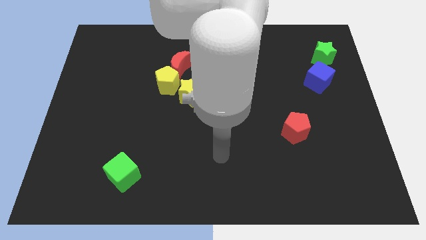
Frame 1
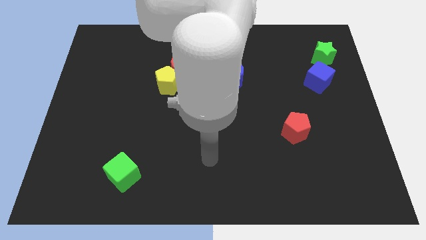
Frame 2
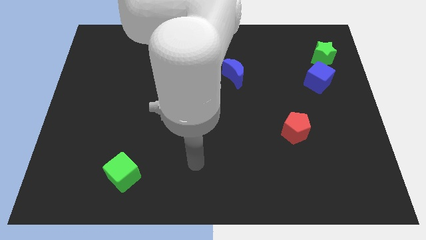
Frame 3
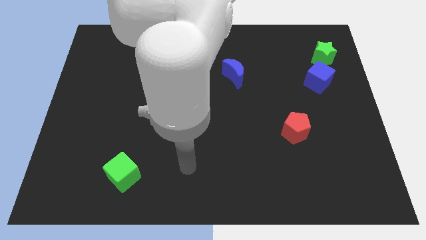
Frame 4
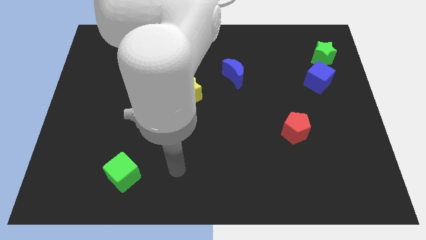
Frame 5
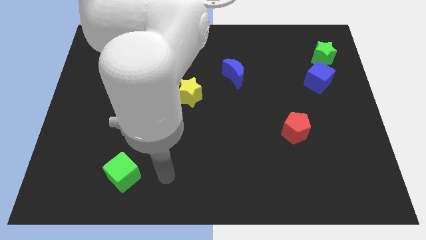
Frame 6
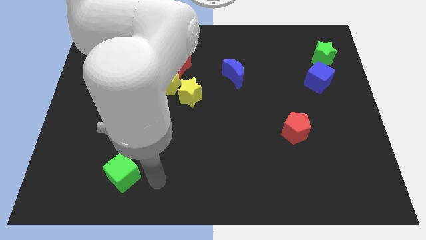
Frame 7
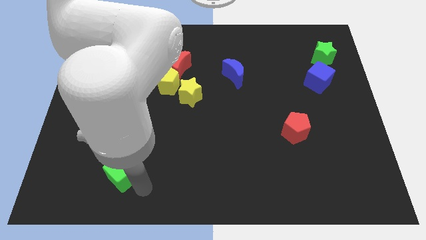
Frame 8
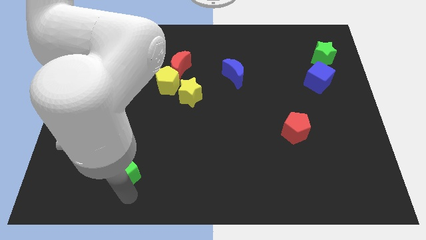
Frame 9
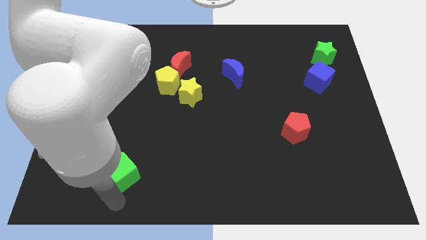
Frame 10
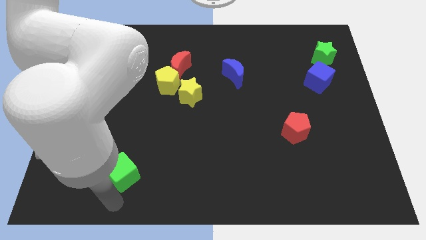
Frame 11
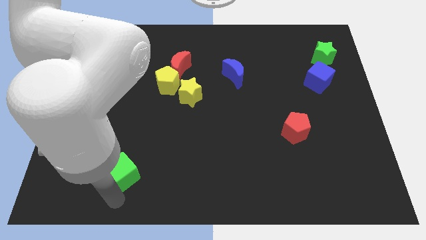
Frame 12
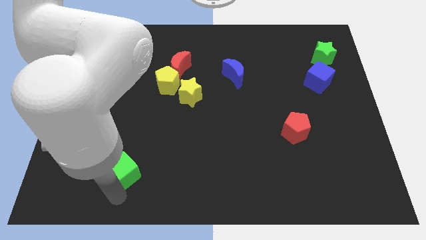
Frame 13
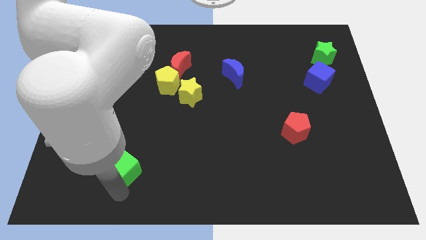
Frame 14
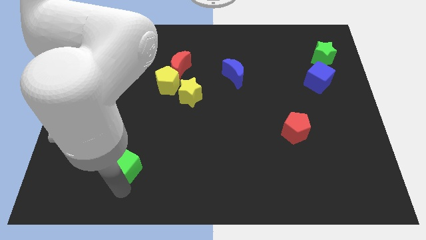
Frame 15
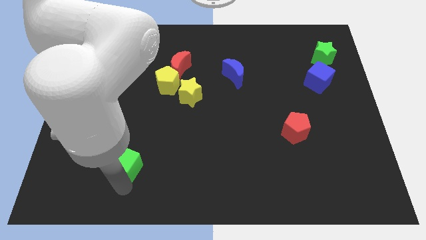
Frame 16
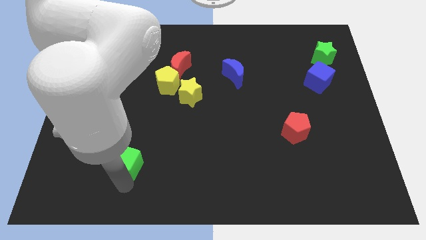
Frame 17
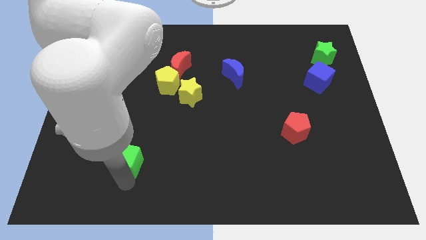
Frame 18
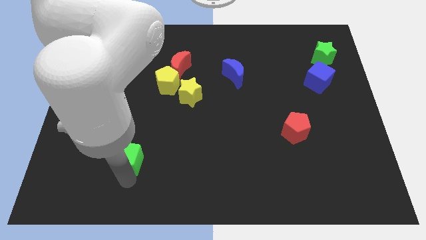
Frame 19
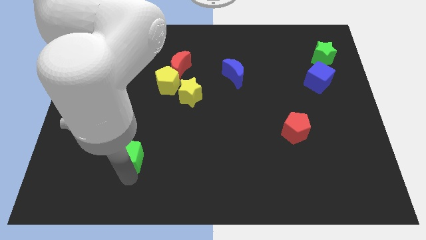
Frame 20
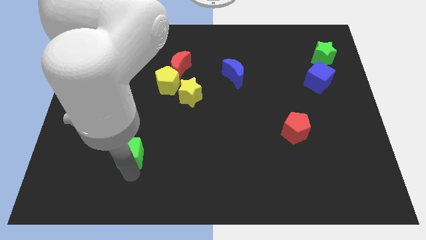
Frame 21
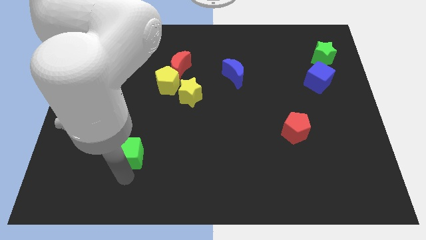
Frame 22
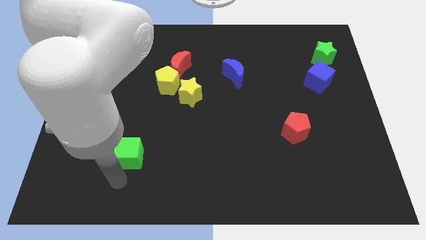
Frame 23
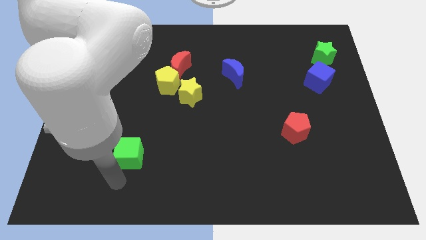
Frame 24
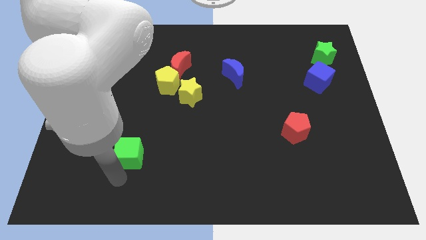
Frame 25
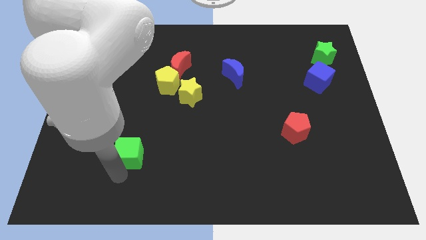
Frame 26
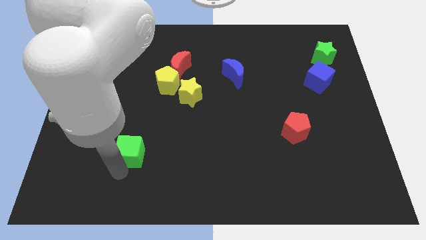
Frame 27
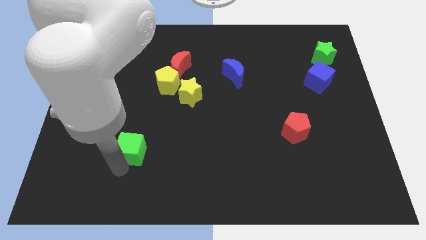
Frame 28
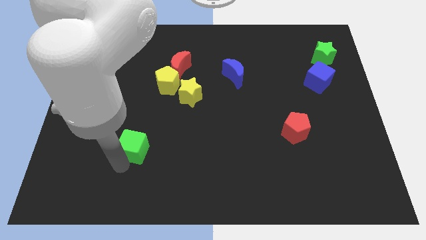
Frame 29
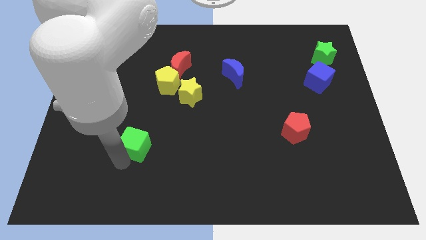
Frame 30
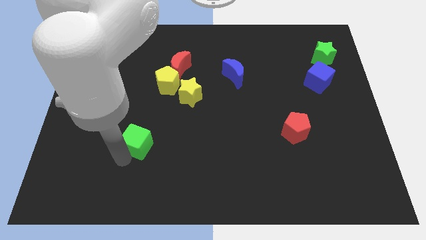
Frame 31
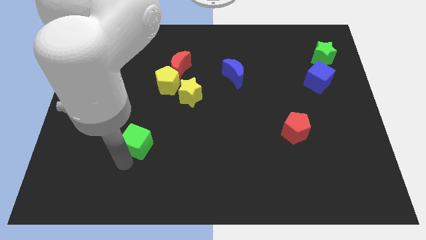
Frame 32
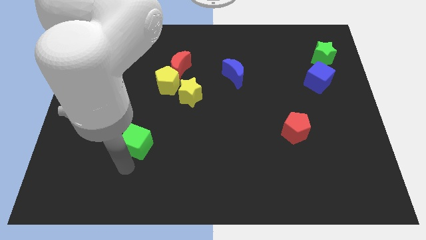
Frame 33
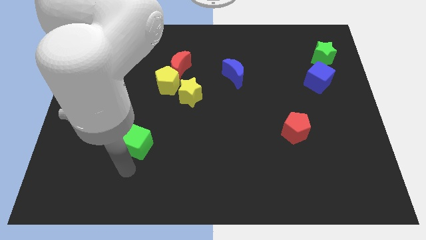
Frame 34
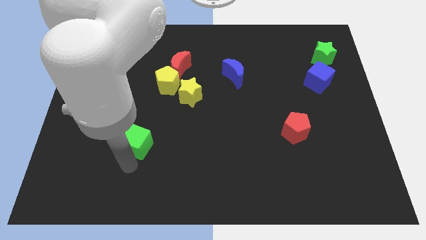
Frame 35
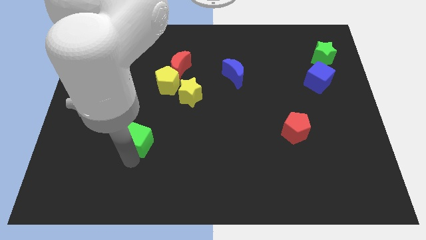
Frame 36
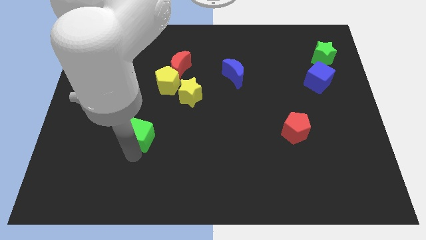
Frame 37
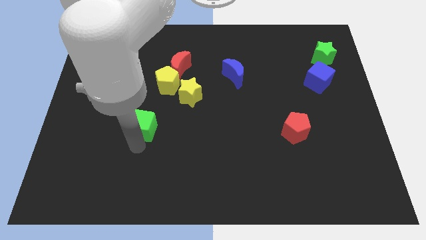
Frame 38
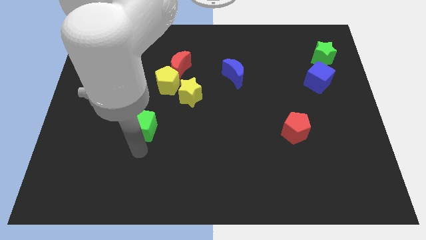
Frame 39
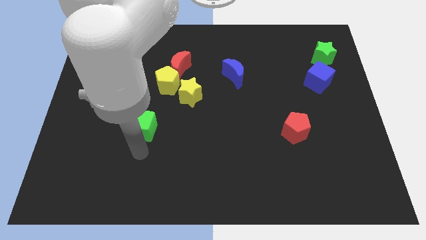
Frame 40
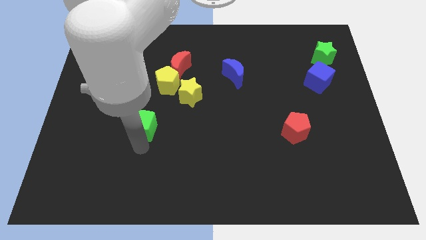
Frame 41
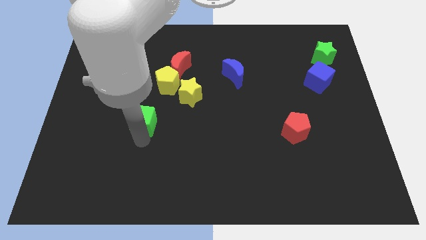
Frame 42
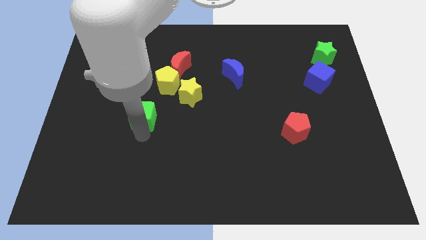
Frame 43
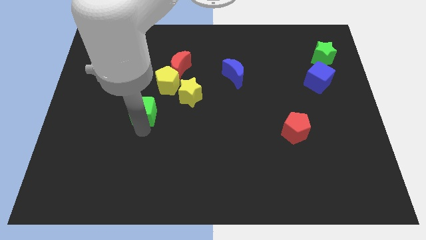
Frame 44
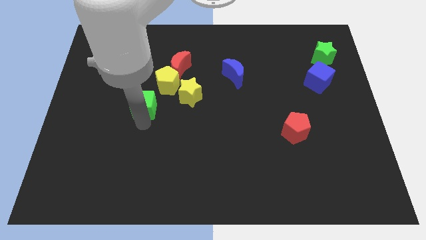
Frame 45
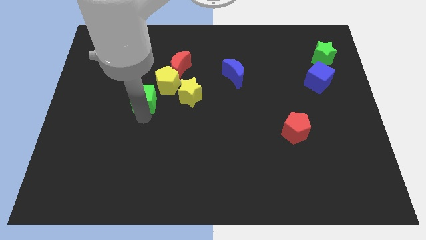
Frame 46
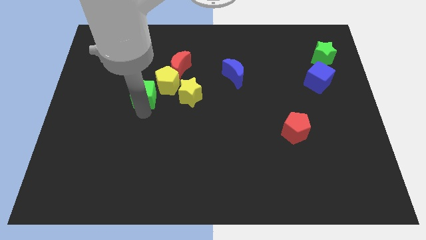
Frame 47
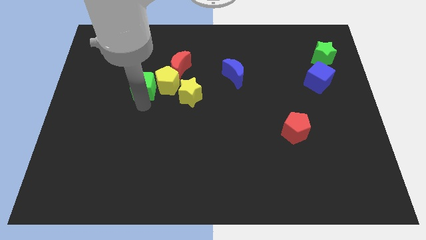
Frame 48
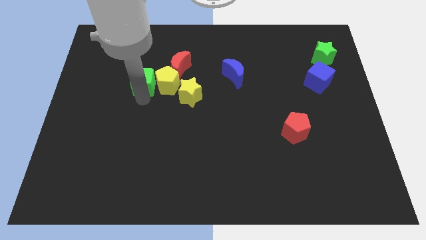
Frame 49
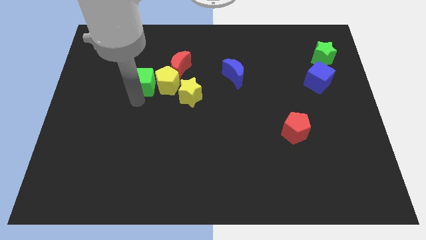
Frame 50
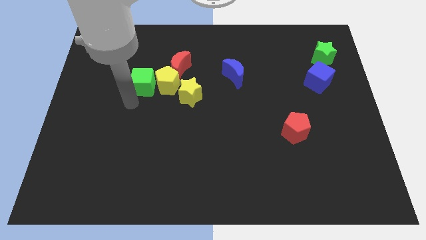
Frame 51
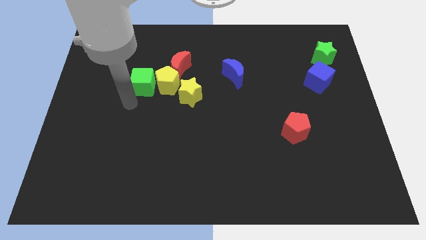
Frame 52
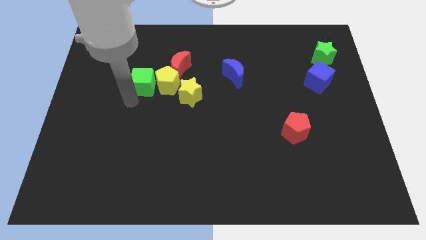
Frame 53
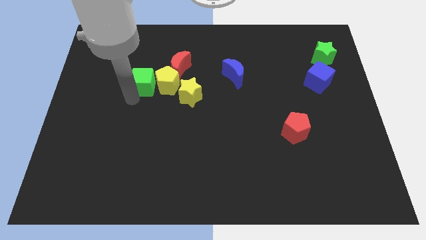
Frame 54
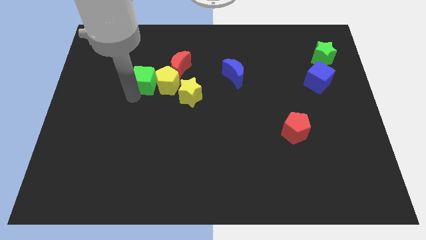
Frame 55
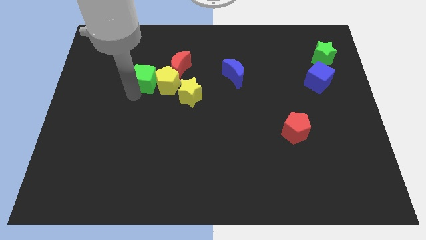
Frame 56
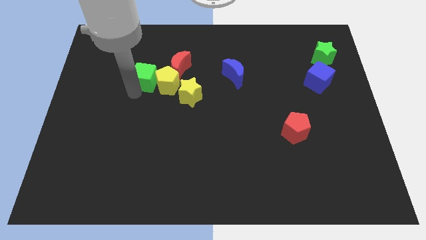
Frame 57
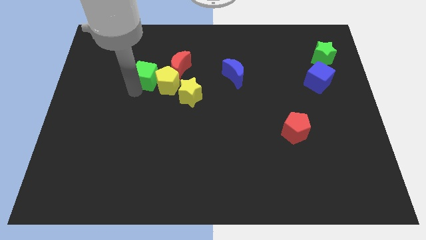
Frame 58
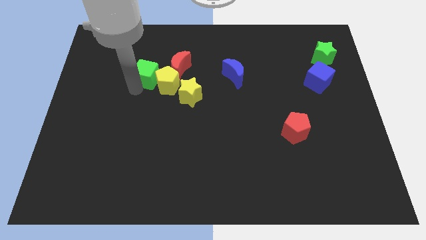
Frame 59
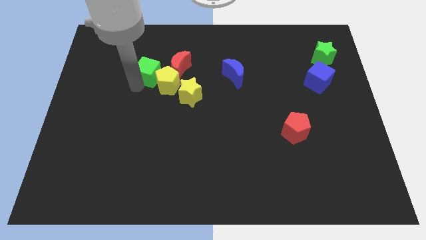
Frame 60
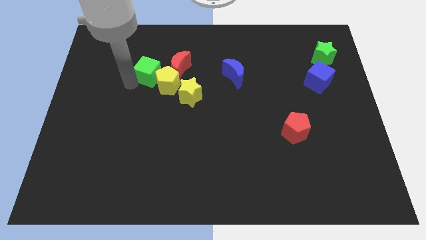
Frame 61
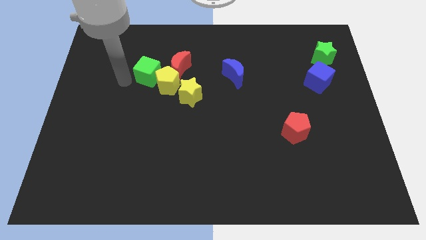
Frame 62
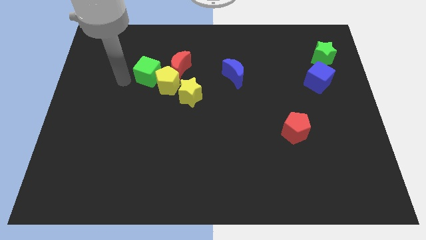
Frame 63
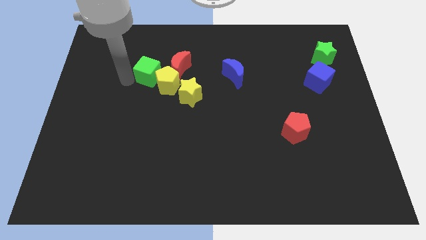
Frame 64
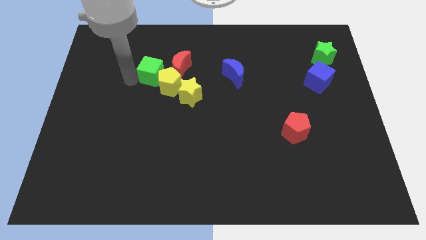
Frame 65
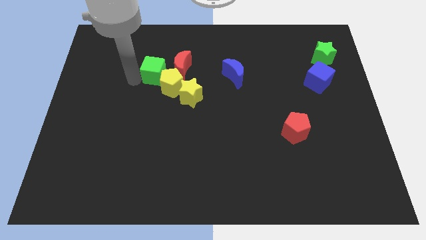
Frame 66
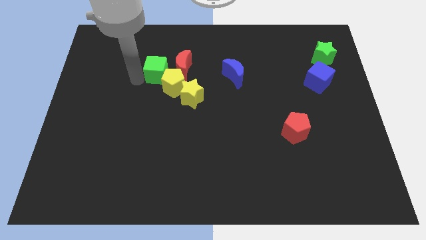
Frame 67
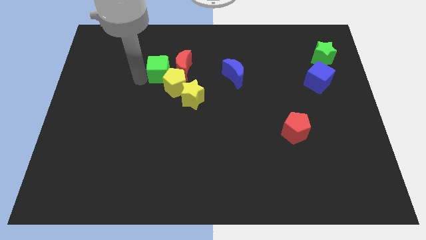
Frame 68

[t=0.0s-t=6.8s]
put the green cube to the red moon

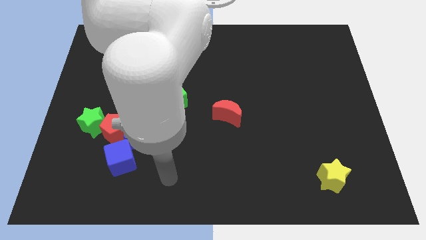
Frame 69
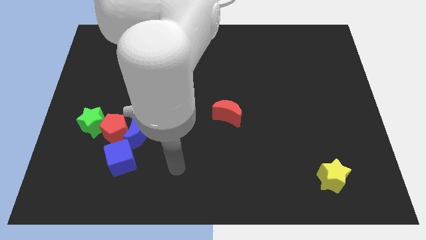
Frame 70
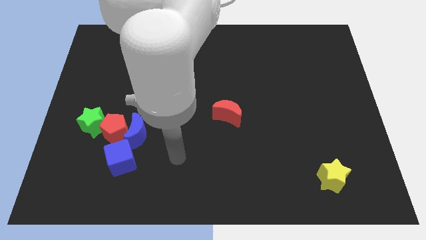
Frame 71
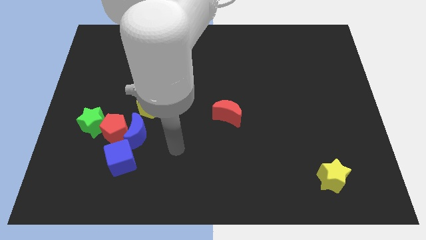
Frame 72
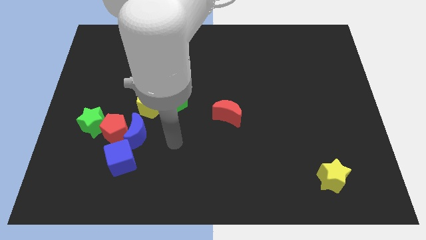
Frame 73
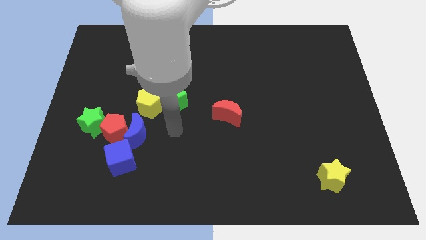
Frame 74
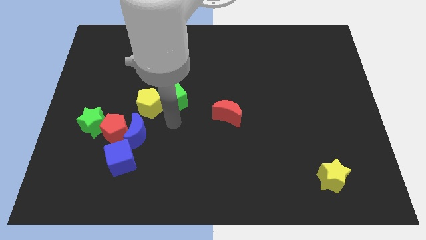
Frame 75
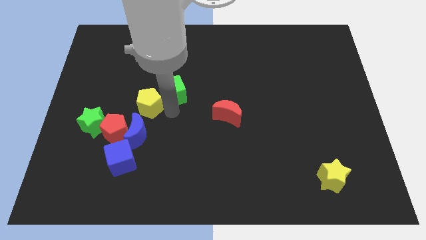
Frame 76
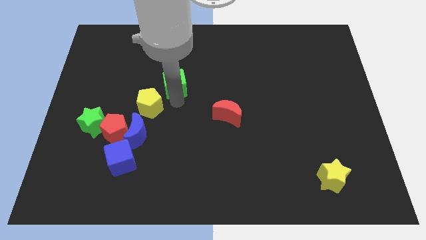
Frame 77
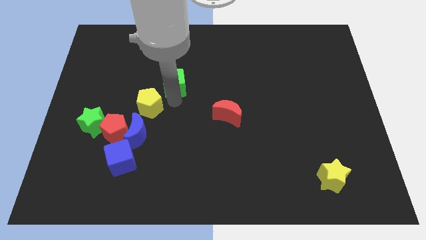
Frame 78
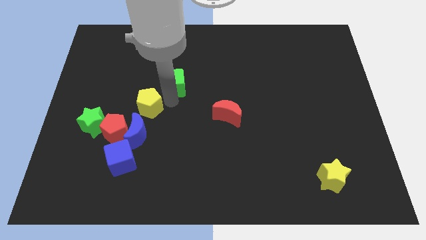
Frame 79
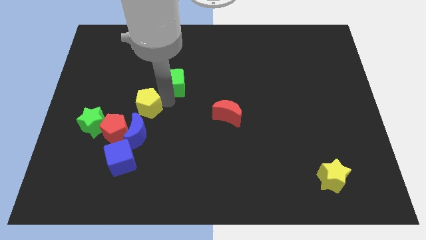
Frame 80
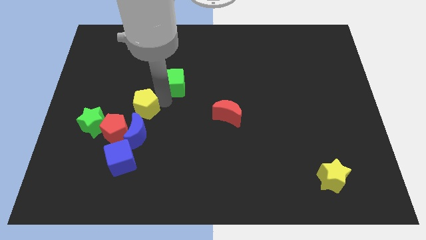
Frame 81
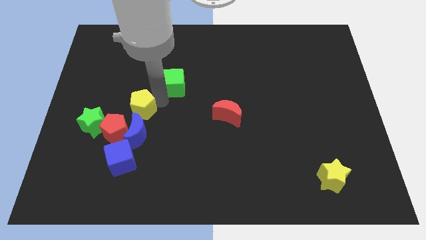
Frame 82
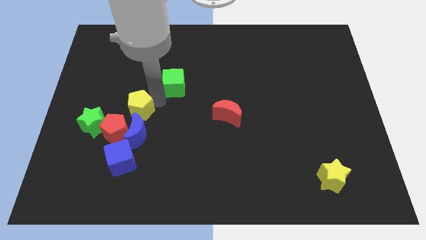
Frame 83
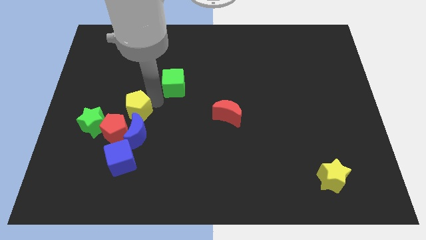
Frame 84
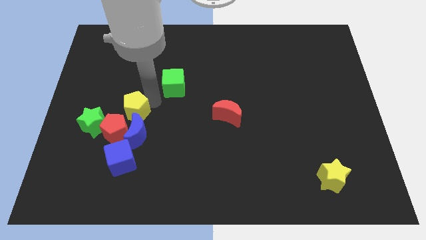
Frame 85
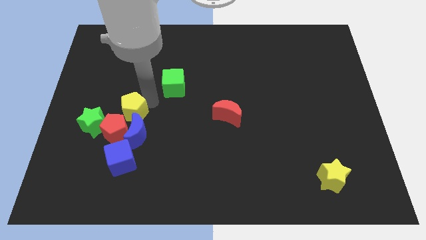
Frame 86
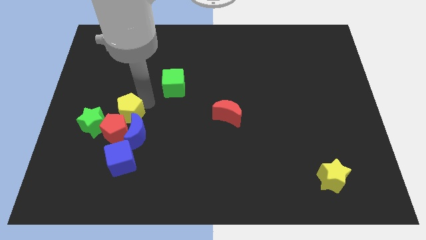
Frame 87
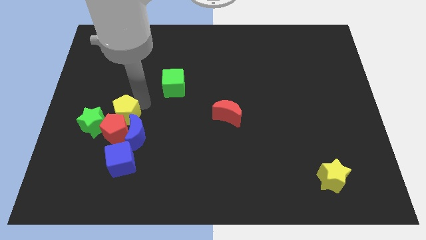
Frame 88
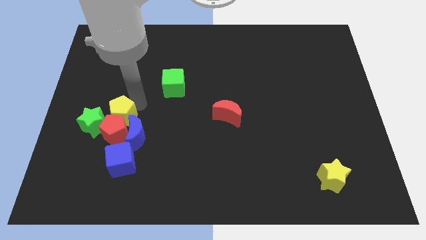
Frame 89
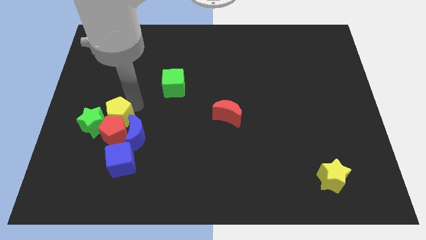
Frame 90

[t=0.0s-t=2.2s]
slide the yellow pentagon to the green star
